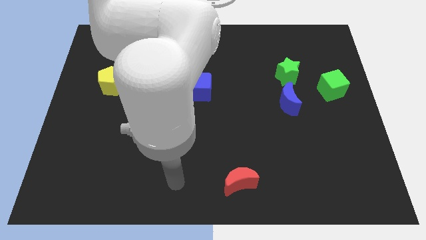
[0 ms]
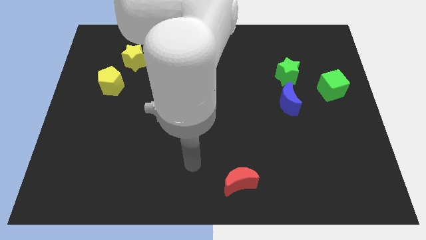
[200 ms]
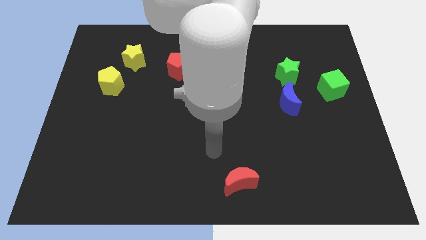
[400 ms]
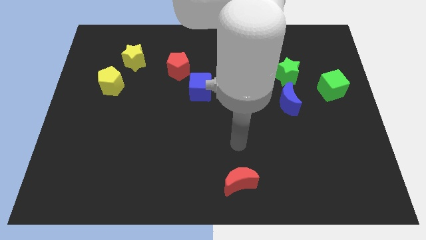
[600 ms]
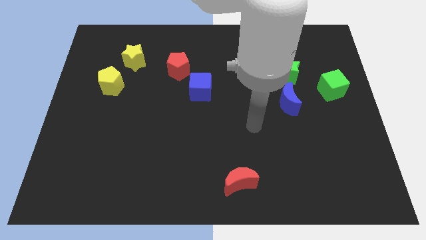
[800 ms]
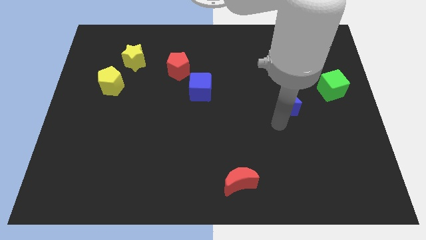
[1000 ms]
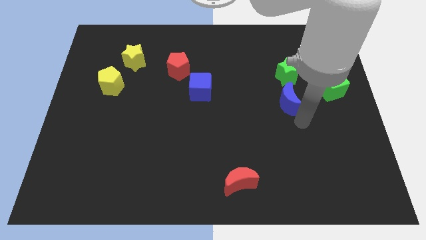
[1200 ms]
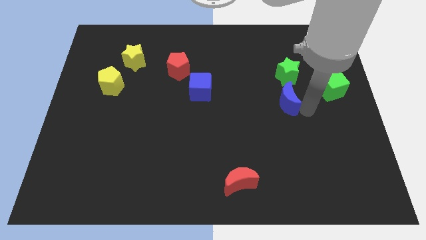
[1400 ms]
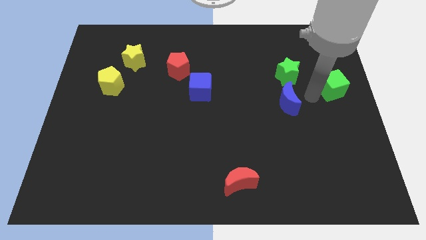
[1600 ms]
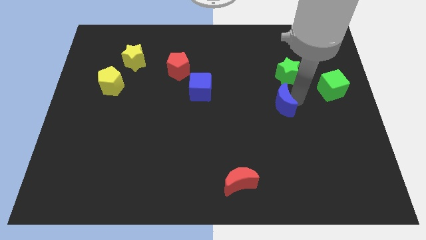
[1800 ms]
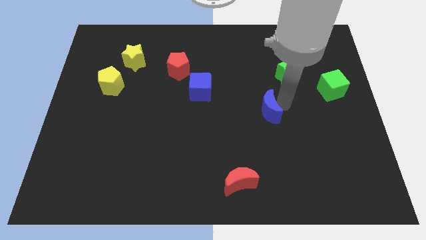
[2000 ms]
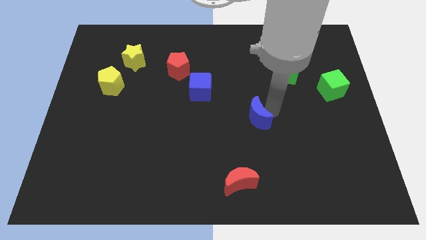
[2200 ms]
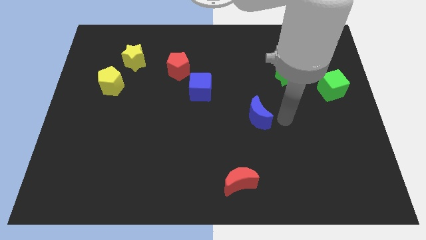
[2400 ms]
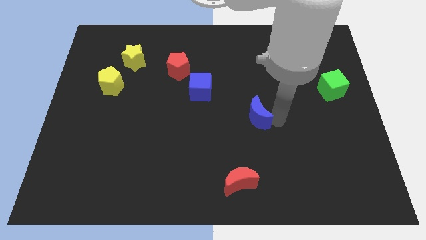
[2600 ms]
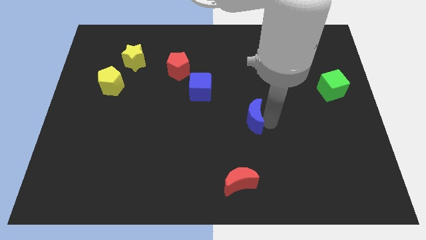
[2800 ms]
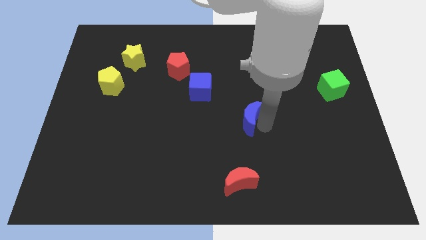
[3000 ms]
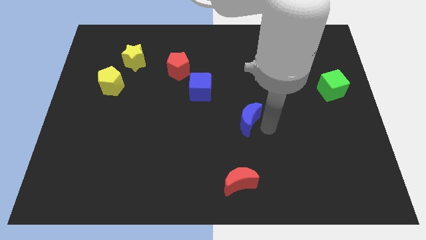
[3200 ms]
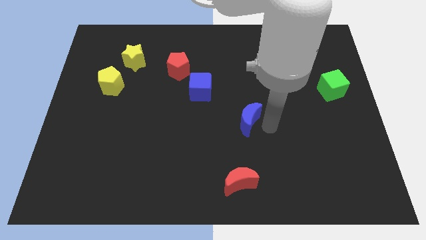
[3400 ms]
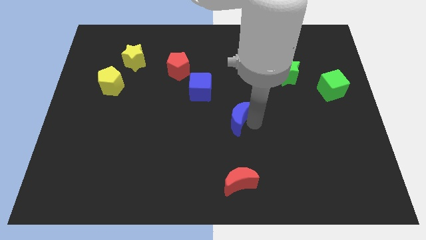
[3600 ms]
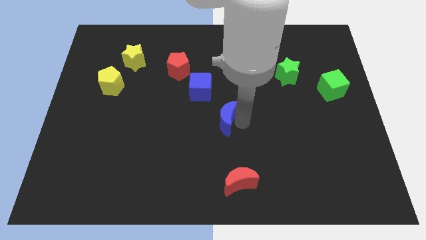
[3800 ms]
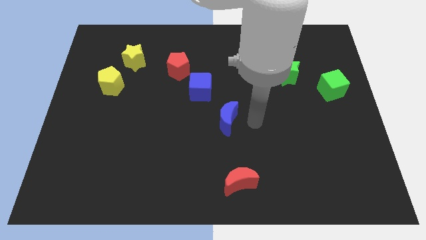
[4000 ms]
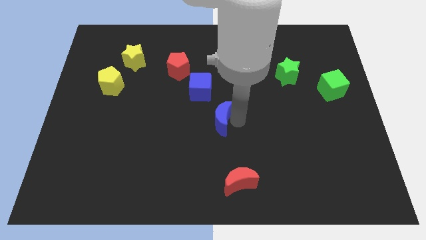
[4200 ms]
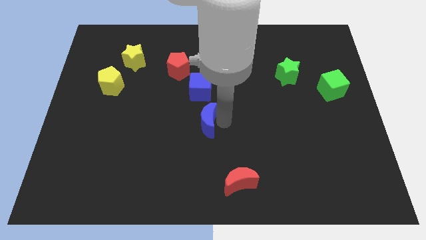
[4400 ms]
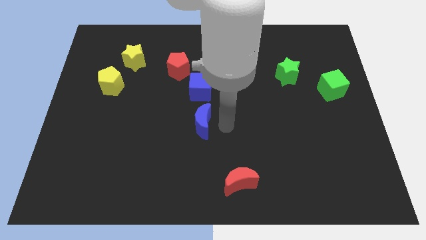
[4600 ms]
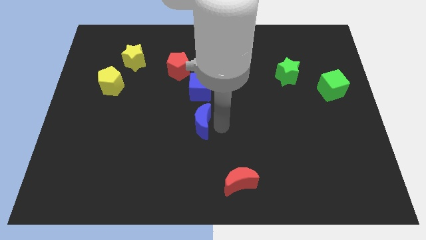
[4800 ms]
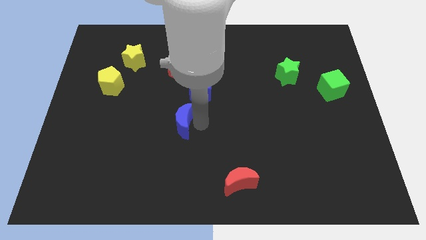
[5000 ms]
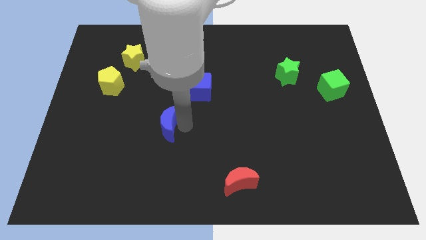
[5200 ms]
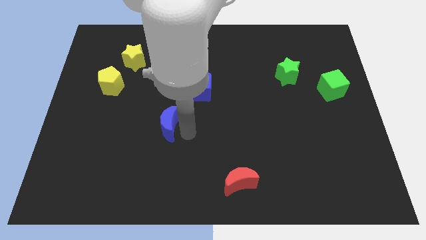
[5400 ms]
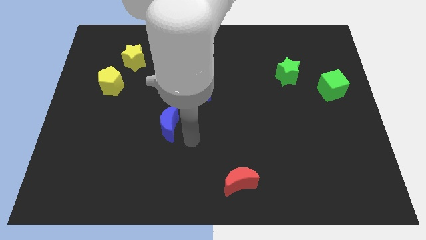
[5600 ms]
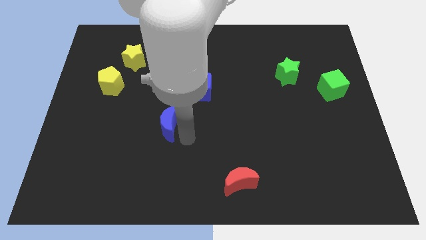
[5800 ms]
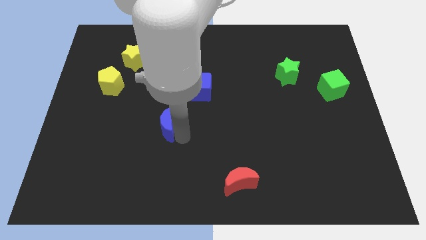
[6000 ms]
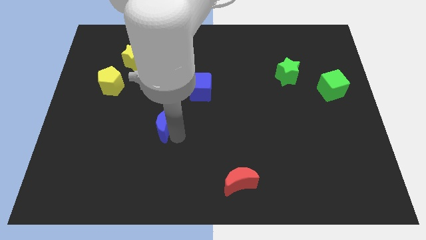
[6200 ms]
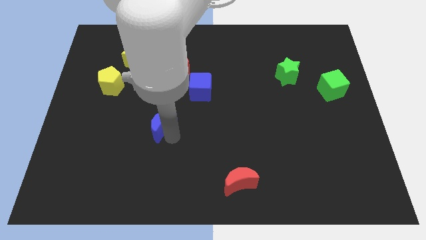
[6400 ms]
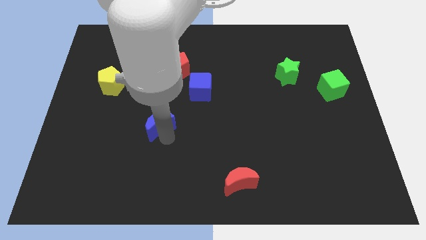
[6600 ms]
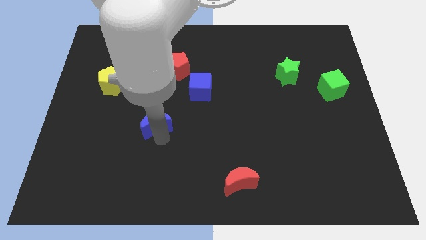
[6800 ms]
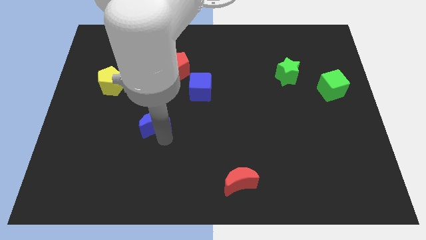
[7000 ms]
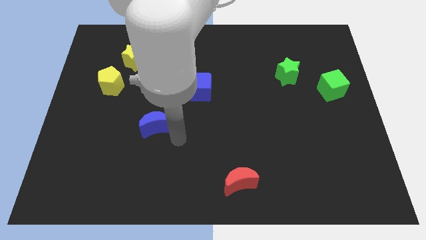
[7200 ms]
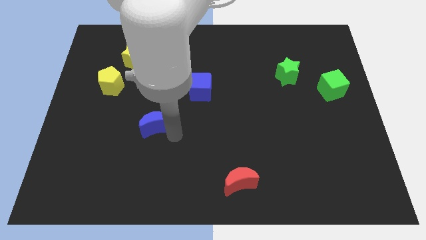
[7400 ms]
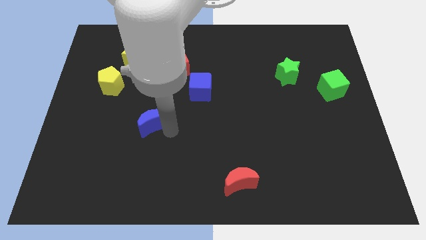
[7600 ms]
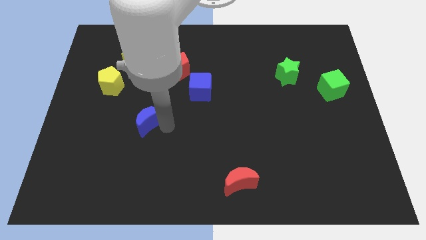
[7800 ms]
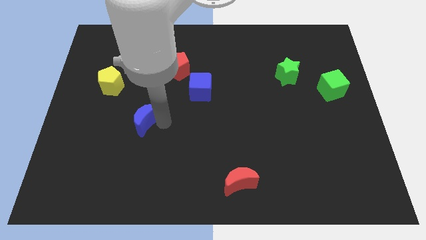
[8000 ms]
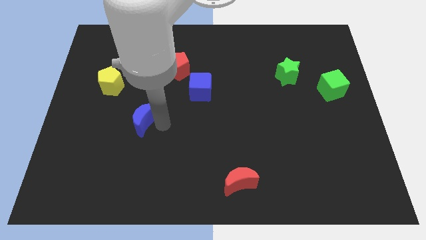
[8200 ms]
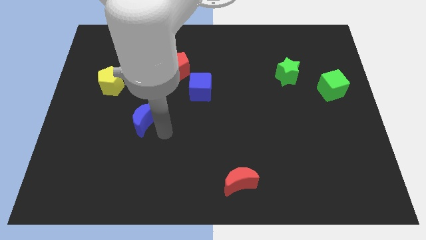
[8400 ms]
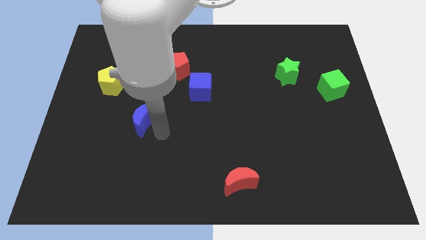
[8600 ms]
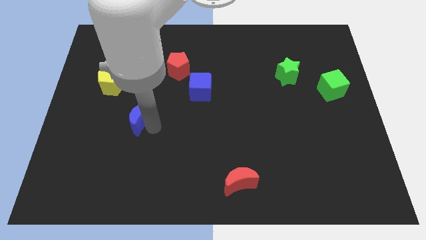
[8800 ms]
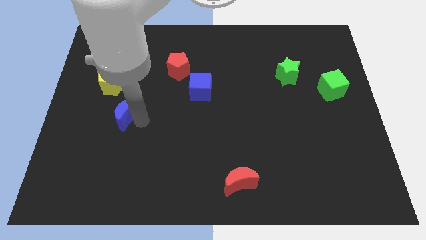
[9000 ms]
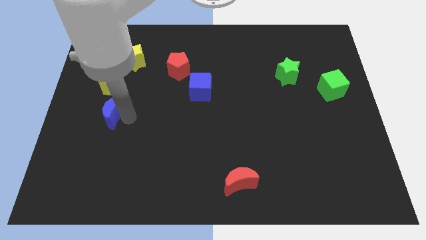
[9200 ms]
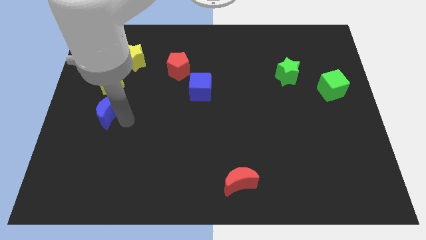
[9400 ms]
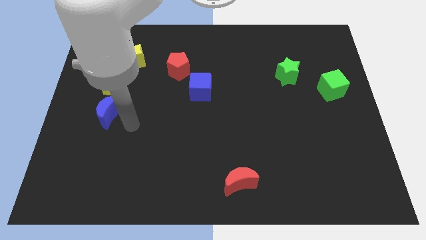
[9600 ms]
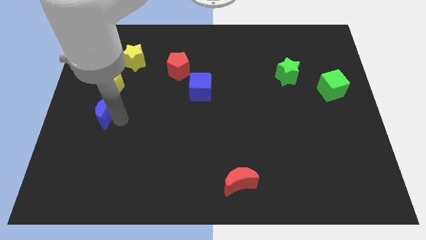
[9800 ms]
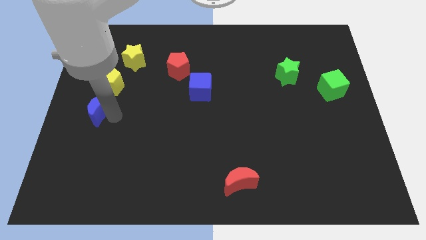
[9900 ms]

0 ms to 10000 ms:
move the blue moon to the left side of the board

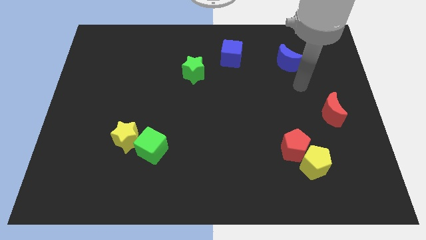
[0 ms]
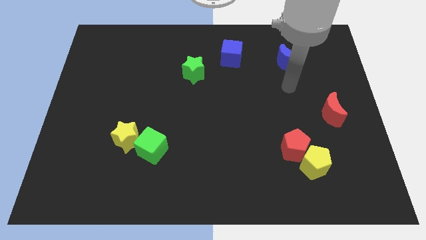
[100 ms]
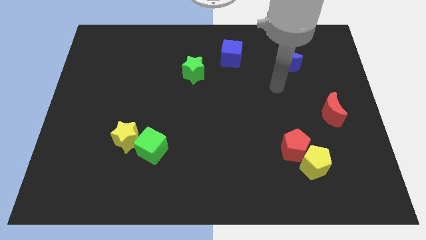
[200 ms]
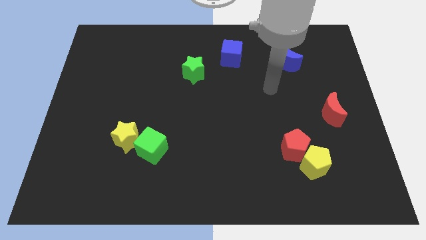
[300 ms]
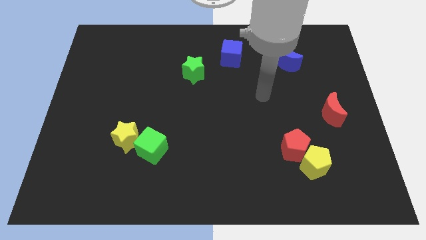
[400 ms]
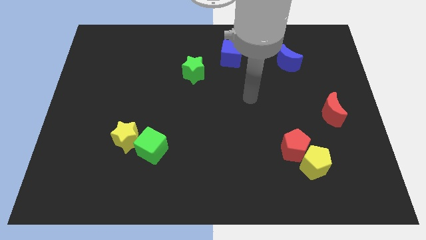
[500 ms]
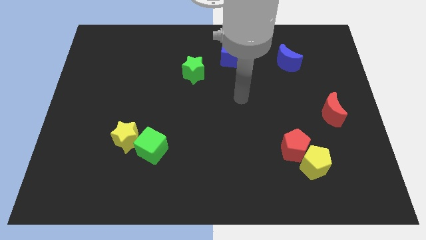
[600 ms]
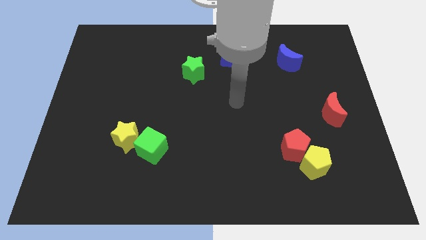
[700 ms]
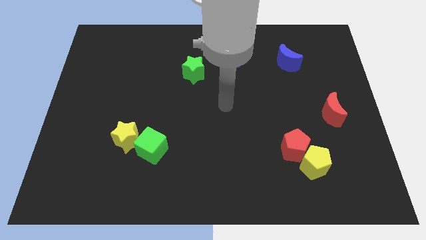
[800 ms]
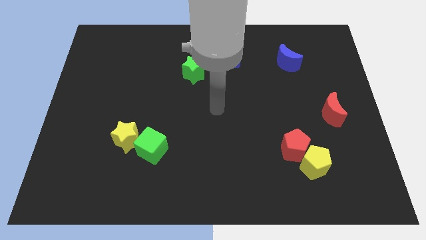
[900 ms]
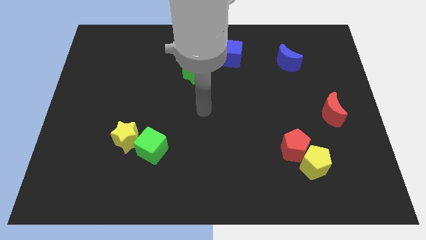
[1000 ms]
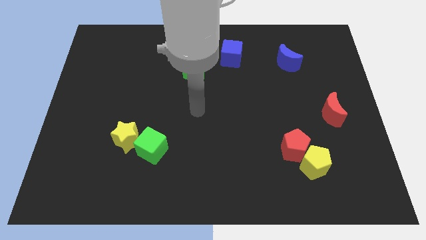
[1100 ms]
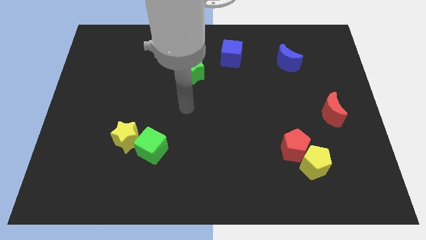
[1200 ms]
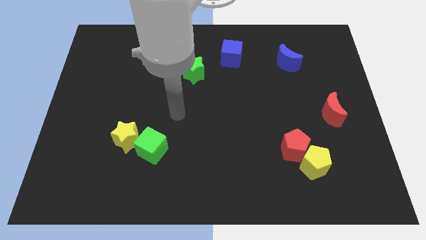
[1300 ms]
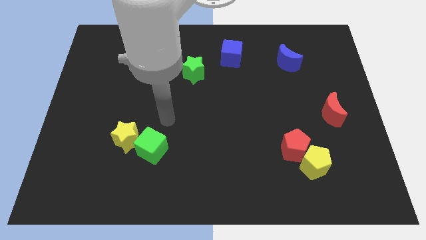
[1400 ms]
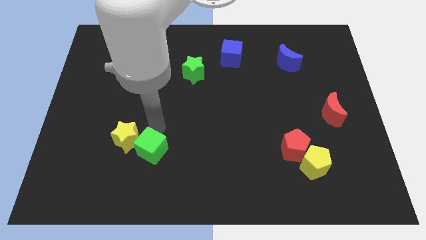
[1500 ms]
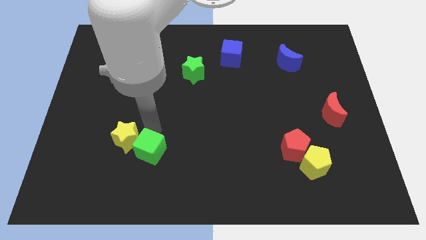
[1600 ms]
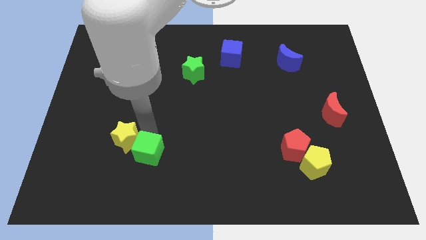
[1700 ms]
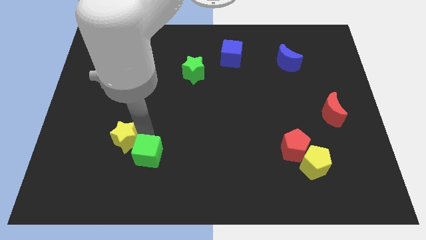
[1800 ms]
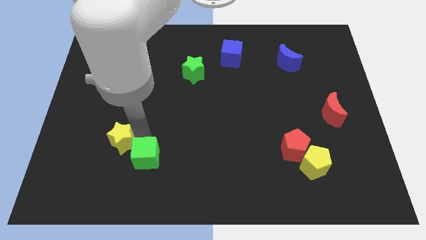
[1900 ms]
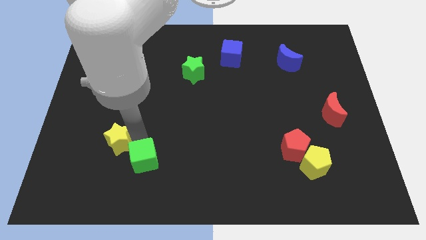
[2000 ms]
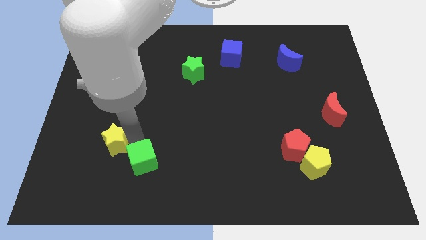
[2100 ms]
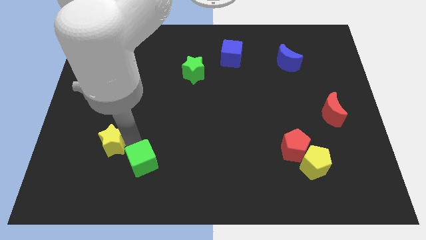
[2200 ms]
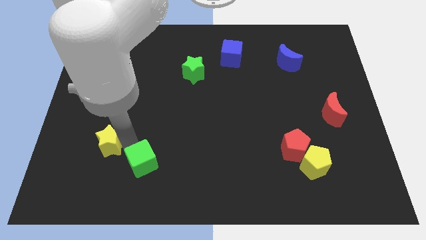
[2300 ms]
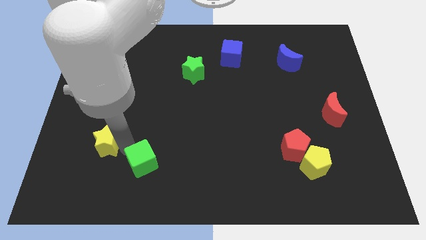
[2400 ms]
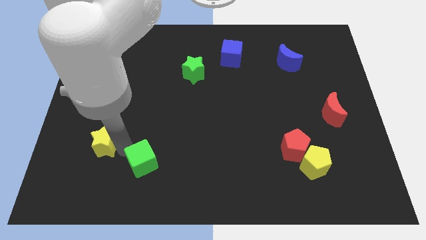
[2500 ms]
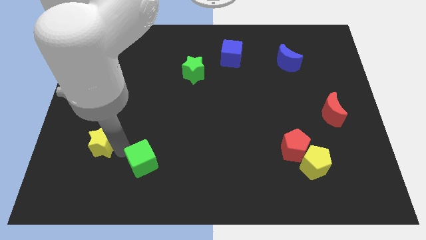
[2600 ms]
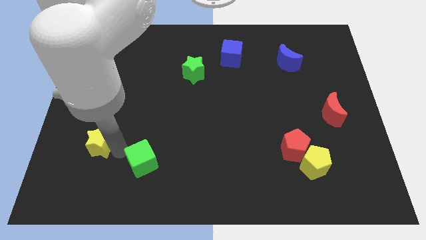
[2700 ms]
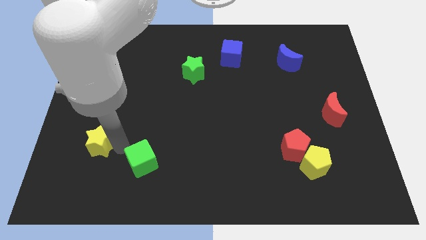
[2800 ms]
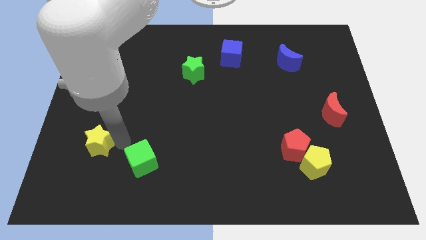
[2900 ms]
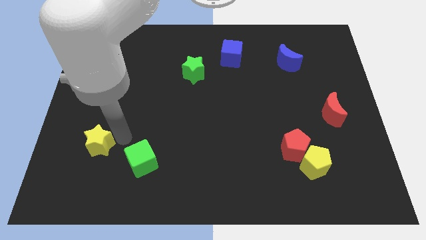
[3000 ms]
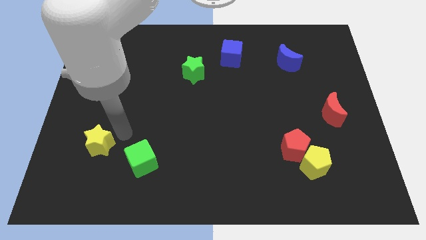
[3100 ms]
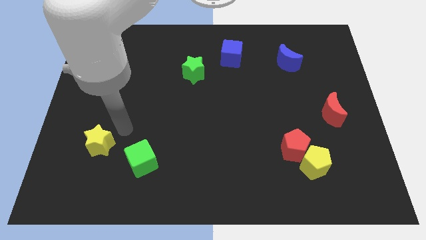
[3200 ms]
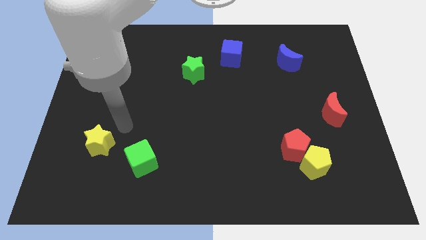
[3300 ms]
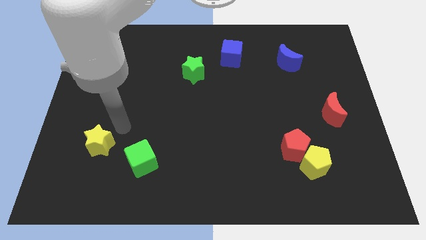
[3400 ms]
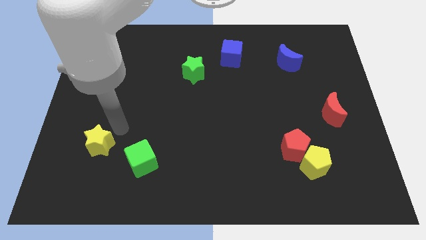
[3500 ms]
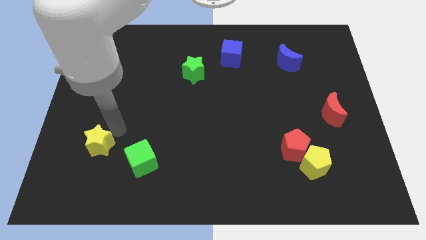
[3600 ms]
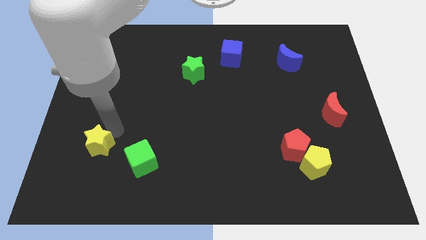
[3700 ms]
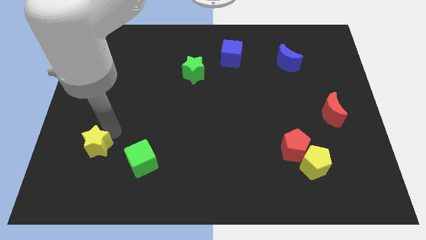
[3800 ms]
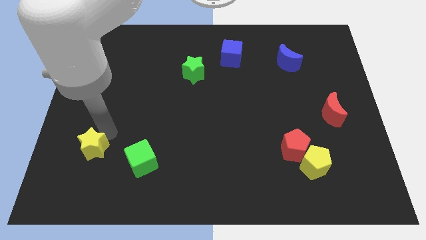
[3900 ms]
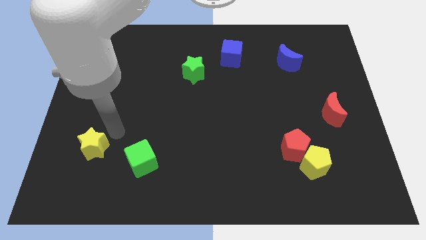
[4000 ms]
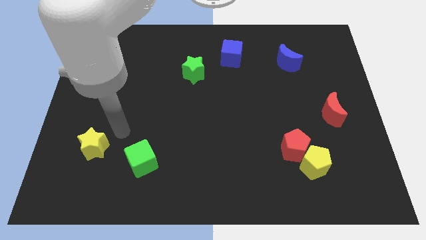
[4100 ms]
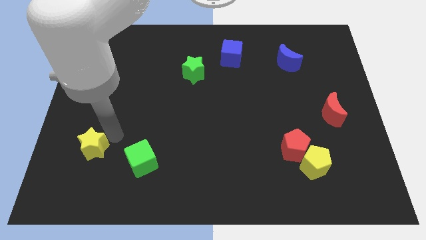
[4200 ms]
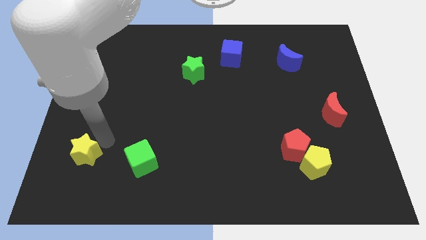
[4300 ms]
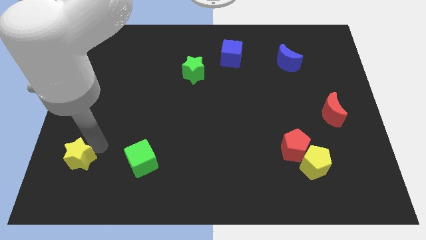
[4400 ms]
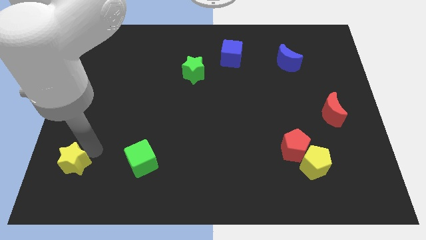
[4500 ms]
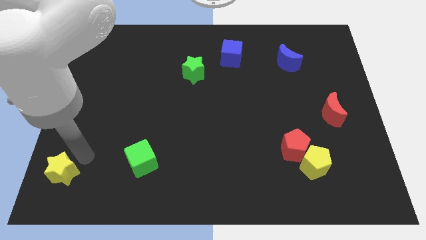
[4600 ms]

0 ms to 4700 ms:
push the yellow star to the bottom left corner
